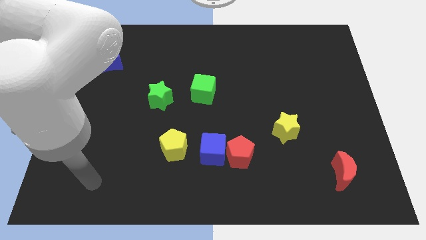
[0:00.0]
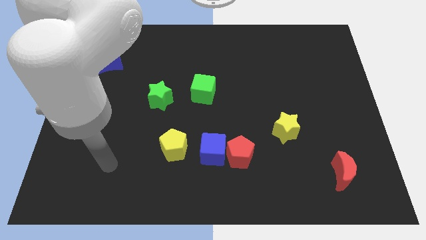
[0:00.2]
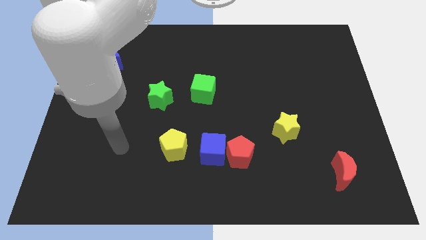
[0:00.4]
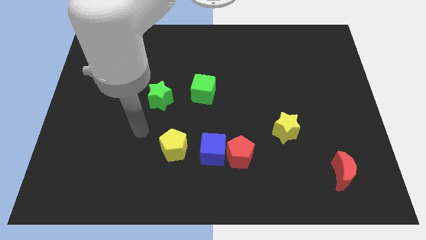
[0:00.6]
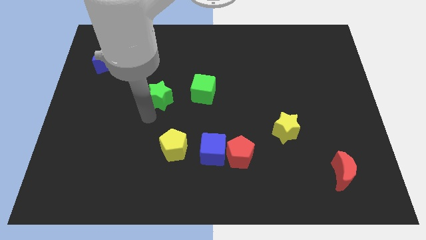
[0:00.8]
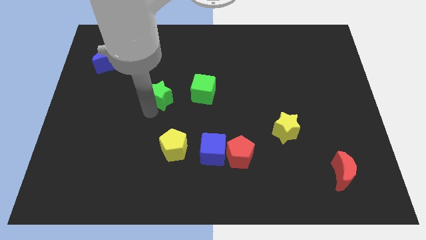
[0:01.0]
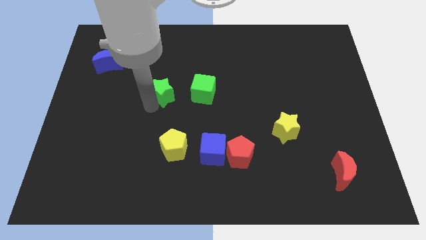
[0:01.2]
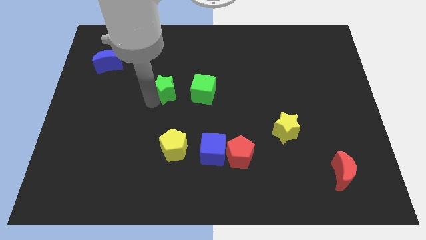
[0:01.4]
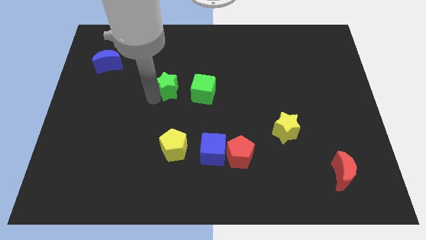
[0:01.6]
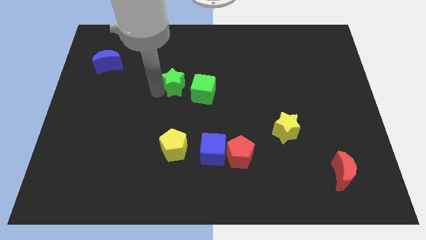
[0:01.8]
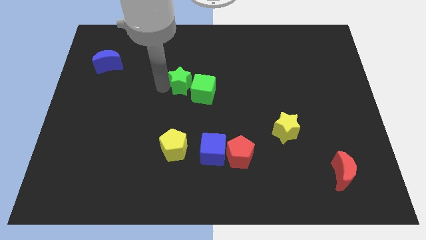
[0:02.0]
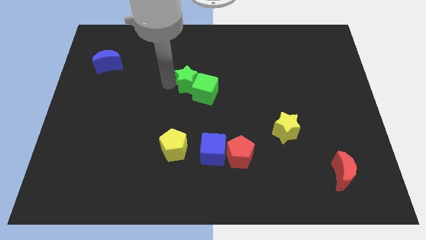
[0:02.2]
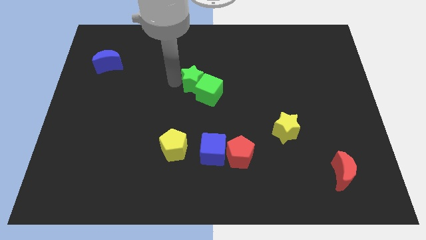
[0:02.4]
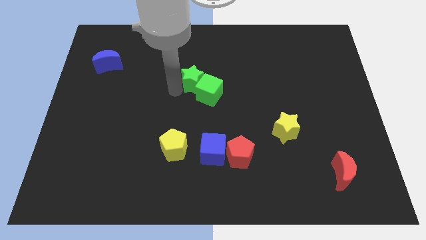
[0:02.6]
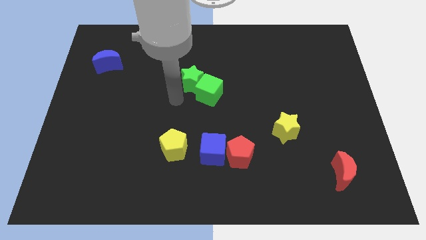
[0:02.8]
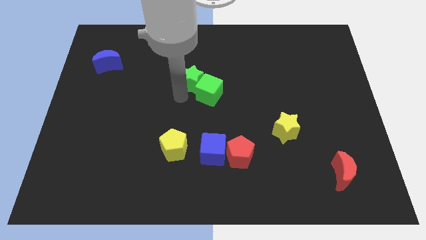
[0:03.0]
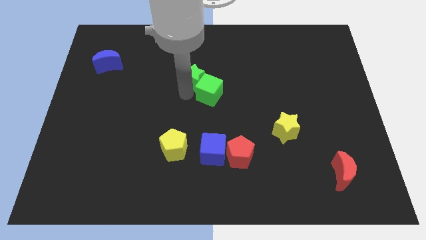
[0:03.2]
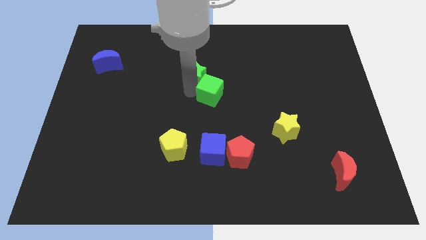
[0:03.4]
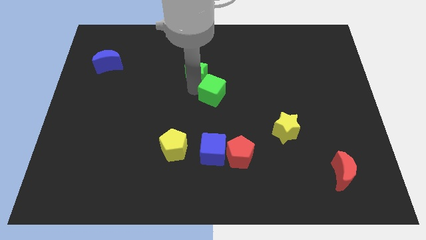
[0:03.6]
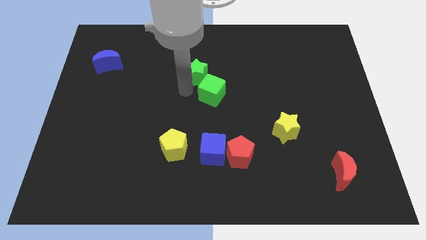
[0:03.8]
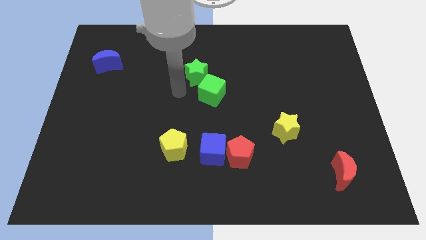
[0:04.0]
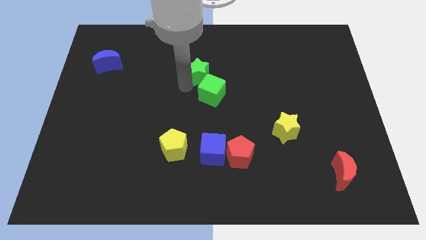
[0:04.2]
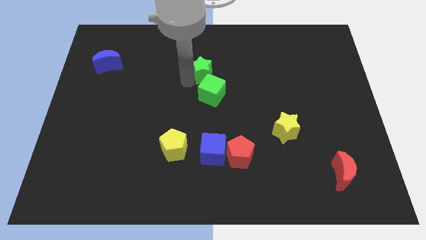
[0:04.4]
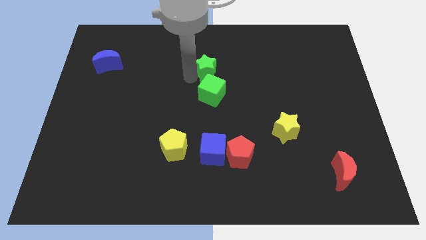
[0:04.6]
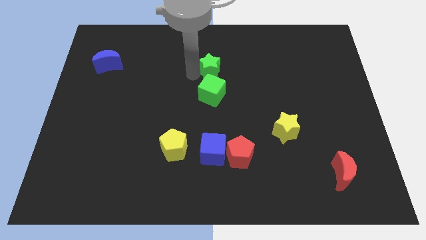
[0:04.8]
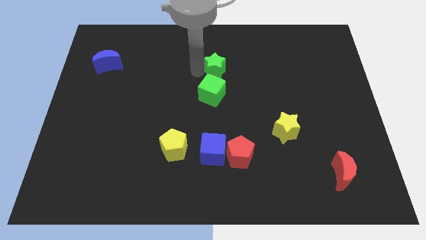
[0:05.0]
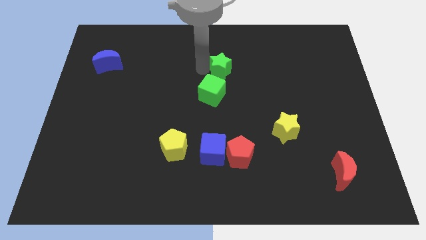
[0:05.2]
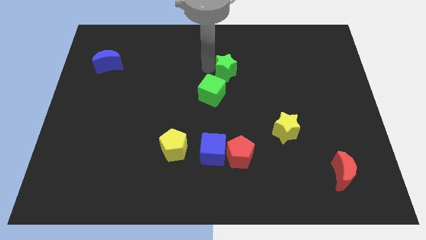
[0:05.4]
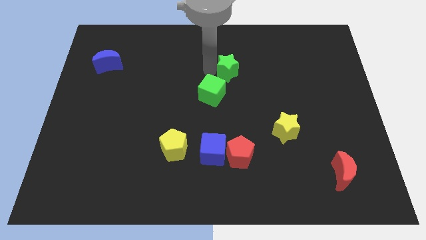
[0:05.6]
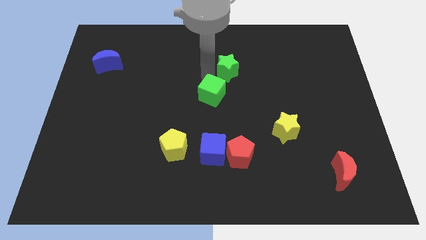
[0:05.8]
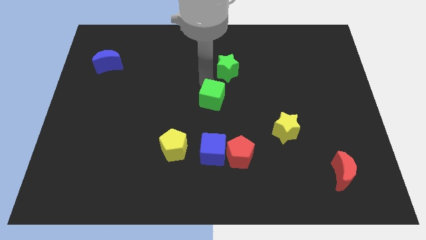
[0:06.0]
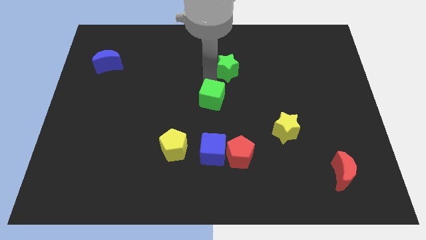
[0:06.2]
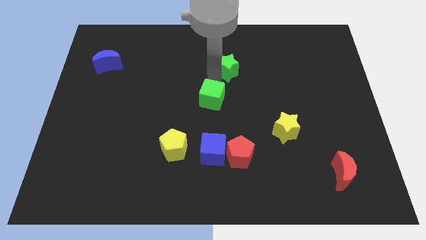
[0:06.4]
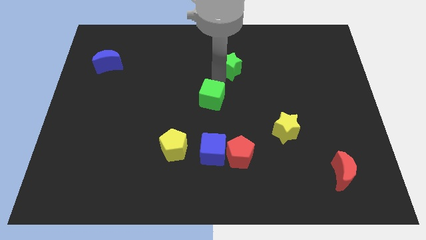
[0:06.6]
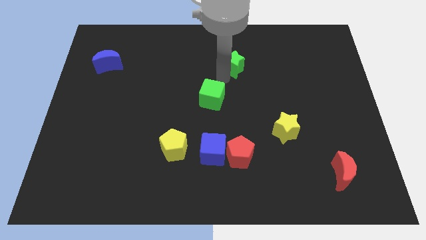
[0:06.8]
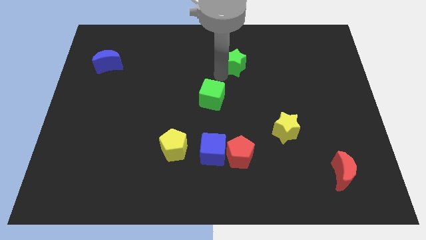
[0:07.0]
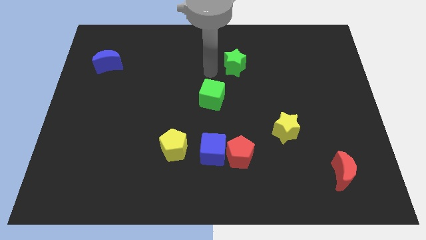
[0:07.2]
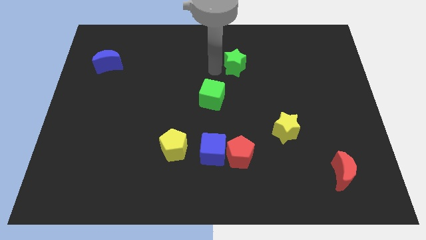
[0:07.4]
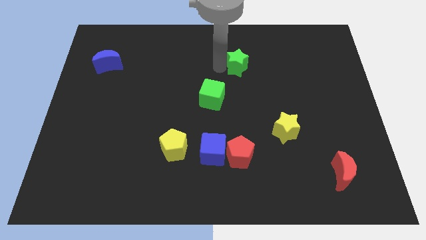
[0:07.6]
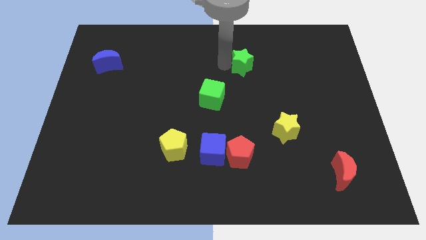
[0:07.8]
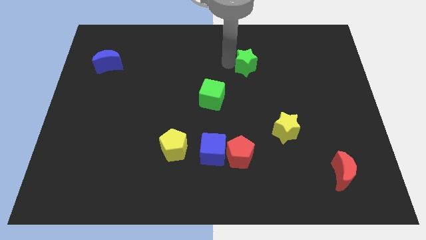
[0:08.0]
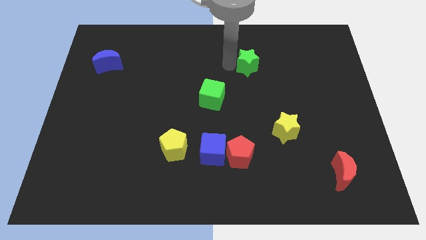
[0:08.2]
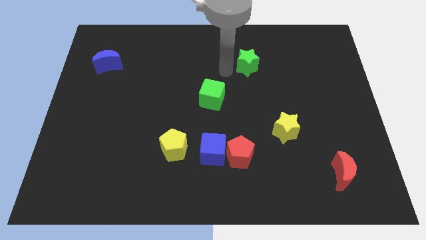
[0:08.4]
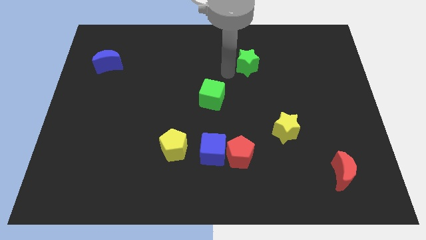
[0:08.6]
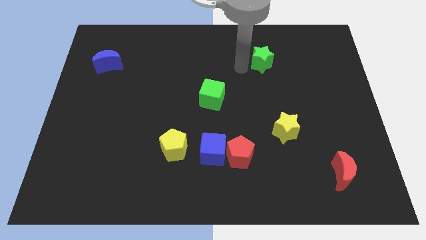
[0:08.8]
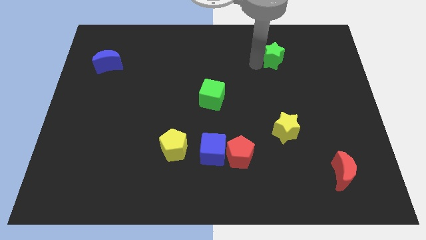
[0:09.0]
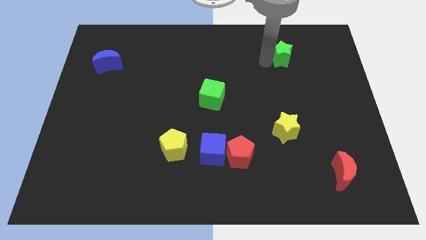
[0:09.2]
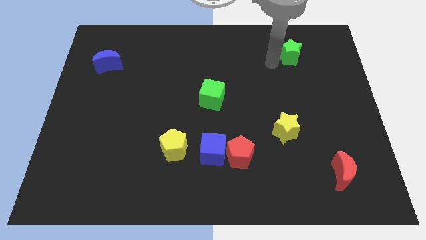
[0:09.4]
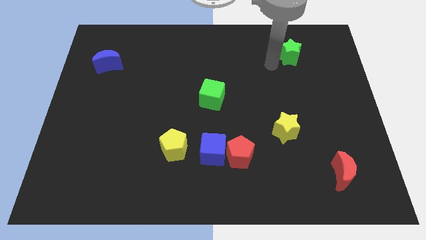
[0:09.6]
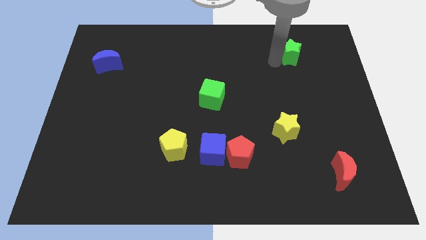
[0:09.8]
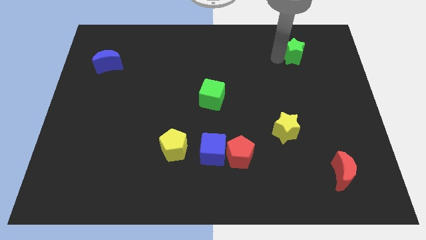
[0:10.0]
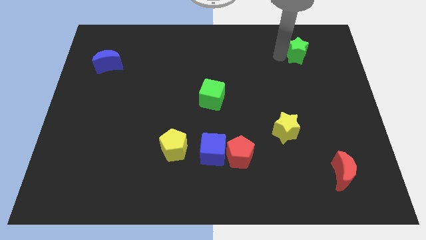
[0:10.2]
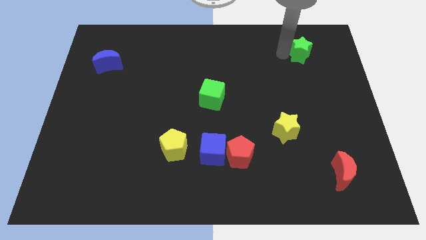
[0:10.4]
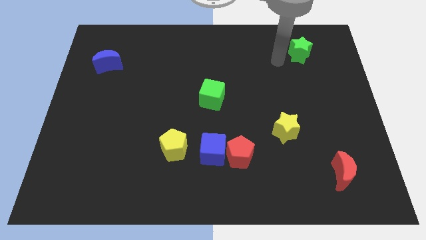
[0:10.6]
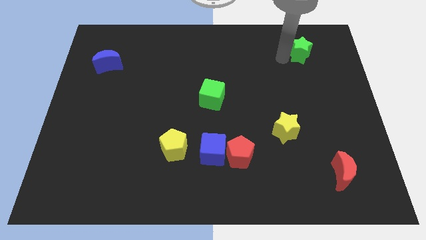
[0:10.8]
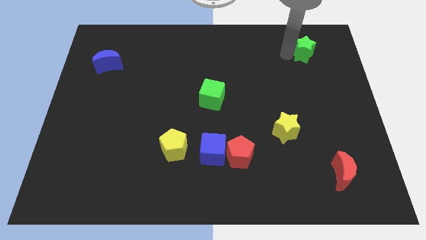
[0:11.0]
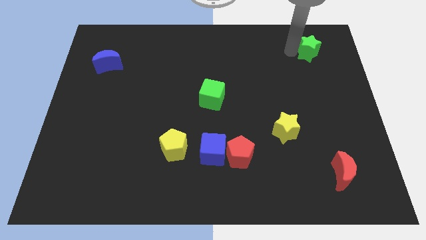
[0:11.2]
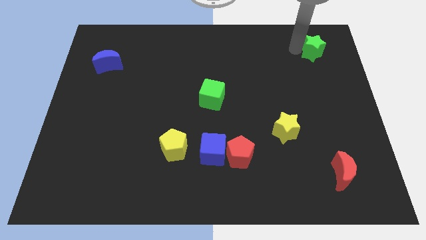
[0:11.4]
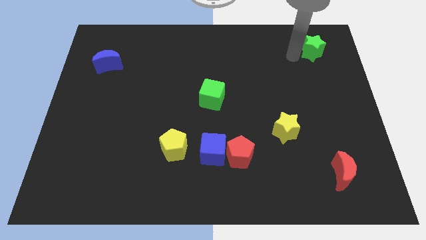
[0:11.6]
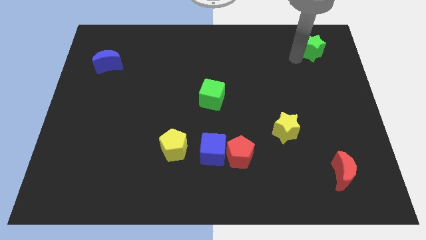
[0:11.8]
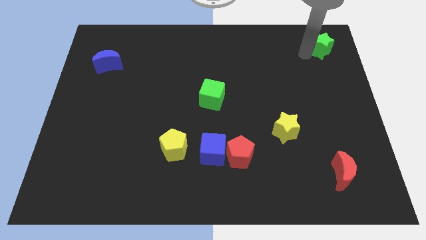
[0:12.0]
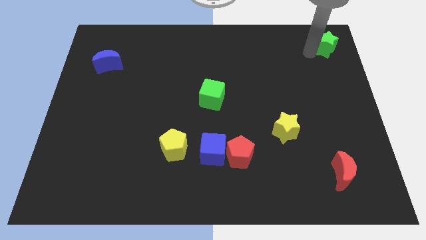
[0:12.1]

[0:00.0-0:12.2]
slide the green star to the top right corner
